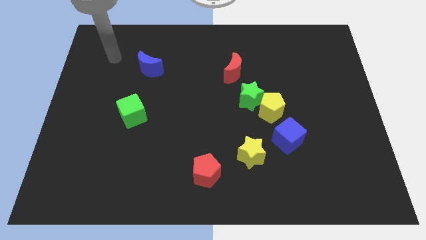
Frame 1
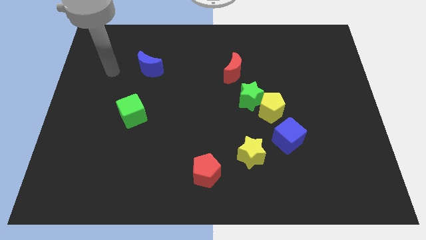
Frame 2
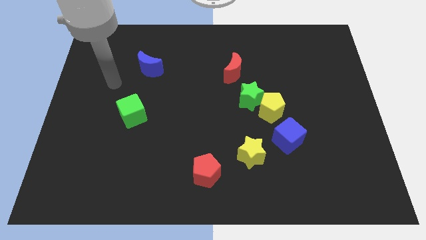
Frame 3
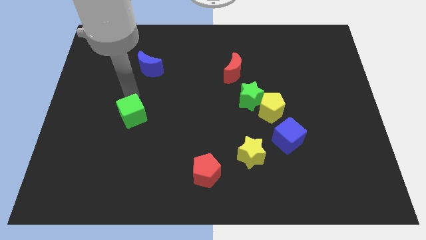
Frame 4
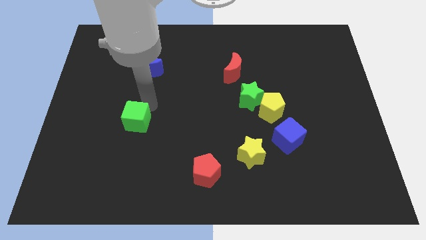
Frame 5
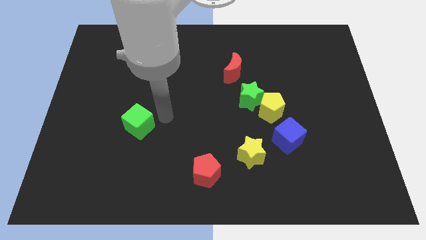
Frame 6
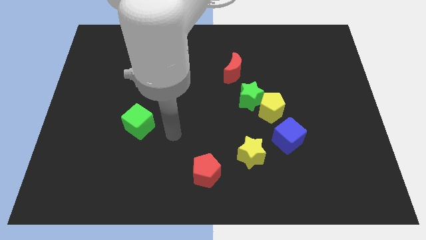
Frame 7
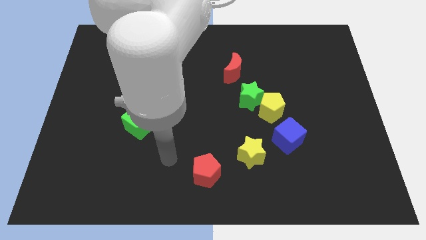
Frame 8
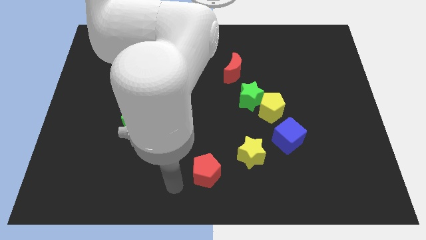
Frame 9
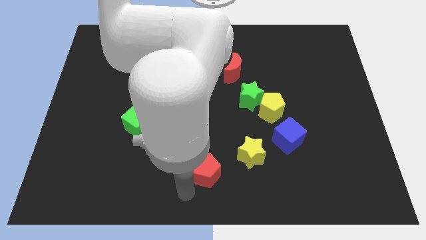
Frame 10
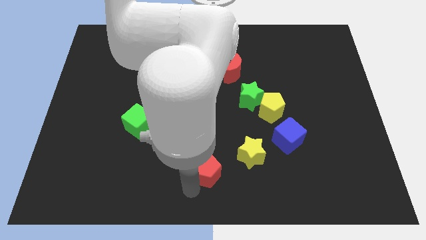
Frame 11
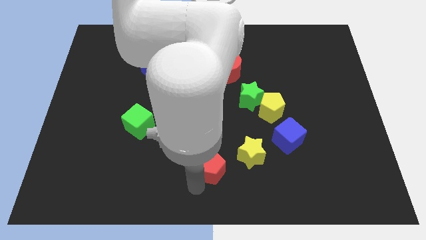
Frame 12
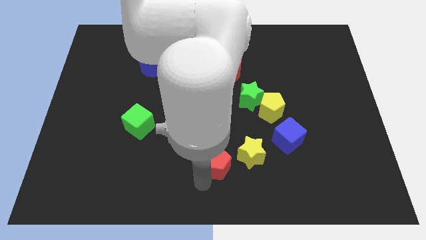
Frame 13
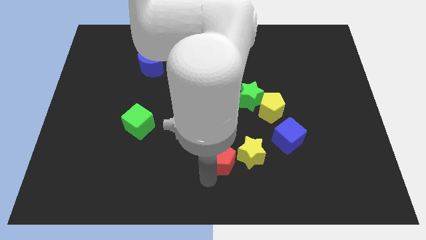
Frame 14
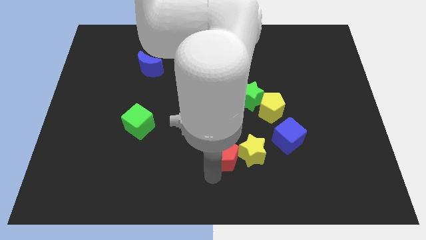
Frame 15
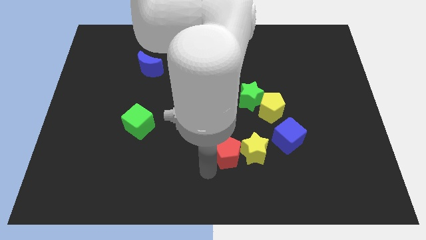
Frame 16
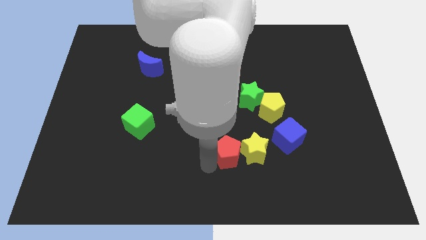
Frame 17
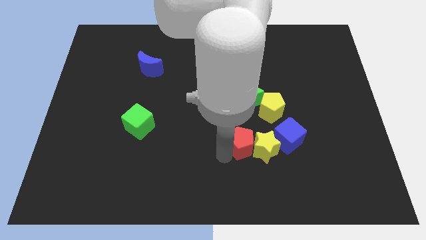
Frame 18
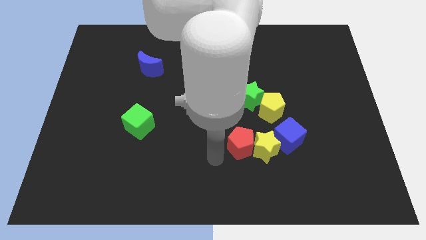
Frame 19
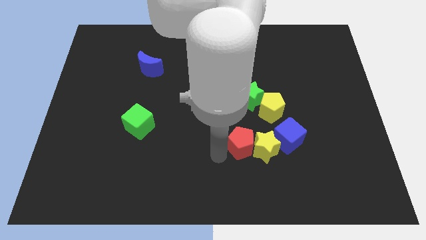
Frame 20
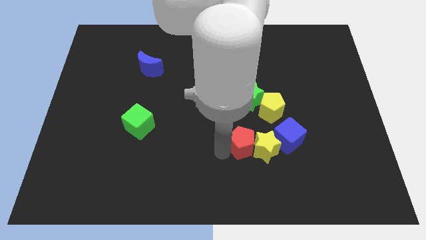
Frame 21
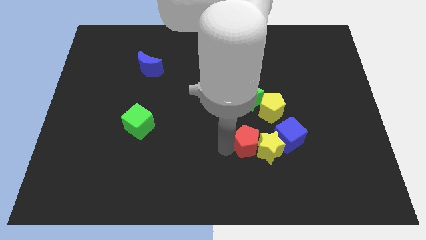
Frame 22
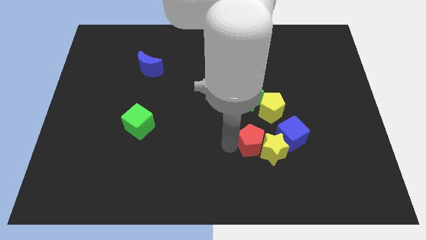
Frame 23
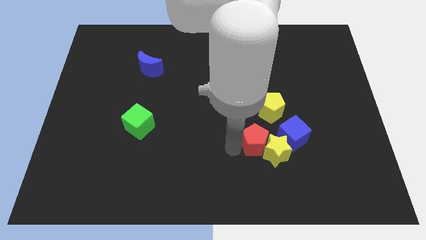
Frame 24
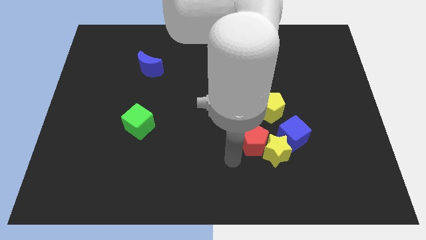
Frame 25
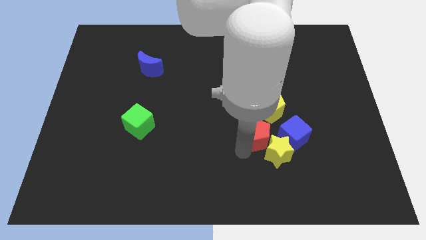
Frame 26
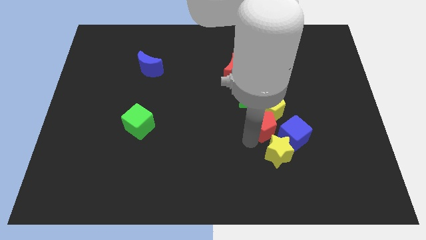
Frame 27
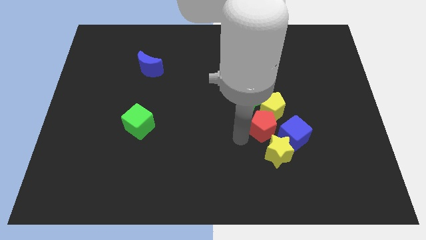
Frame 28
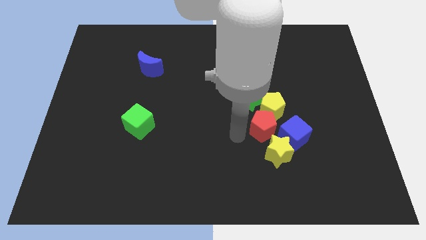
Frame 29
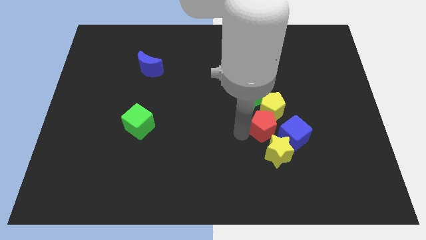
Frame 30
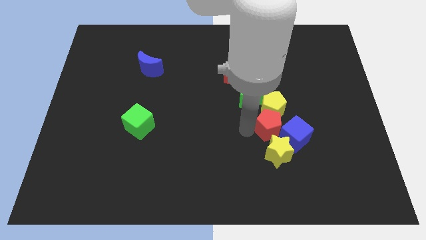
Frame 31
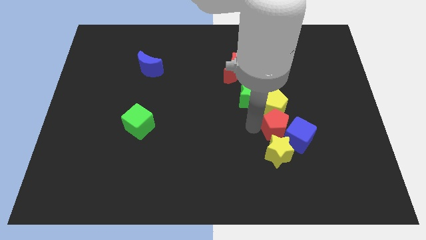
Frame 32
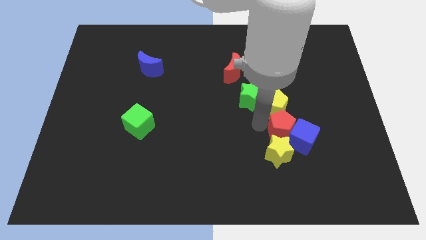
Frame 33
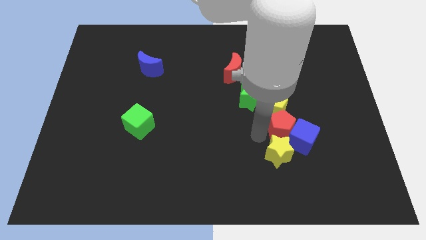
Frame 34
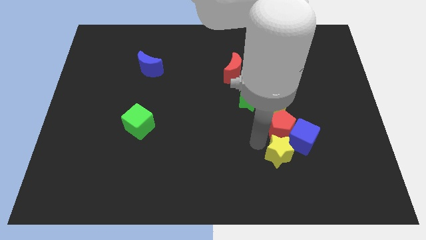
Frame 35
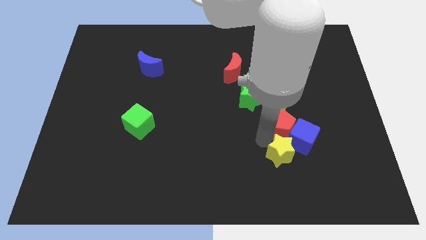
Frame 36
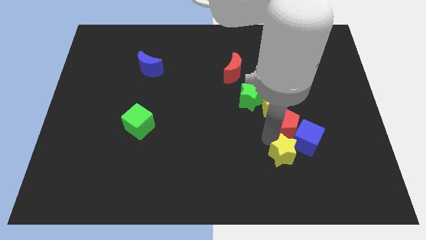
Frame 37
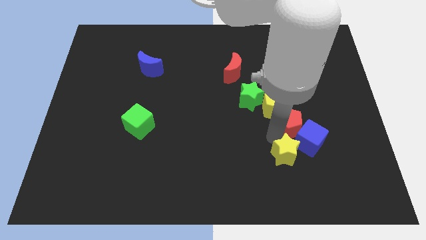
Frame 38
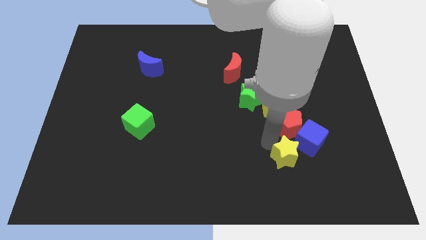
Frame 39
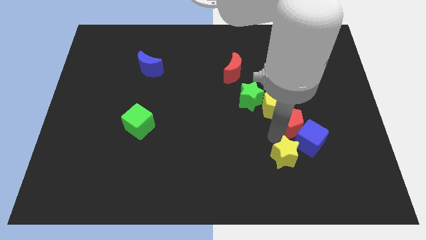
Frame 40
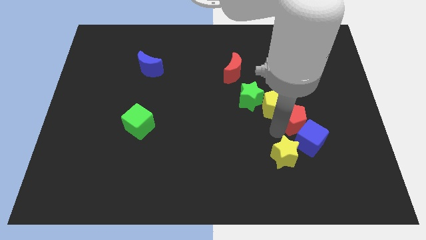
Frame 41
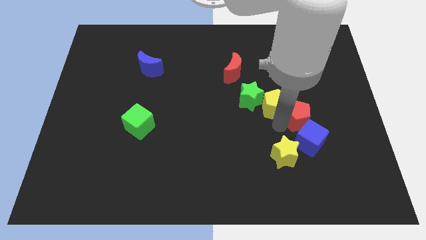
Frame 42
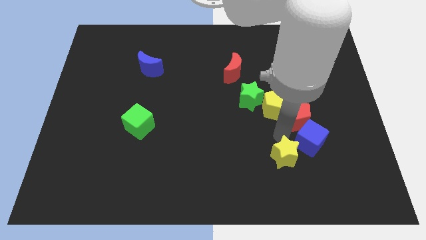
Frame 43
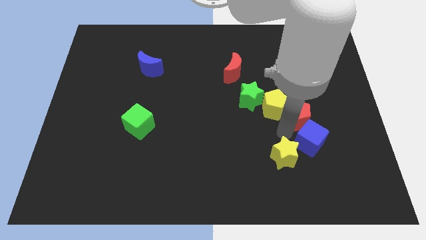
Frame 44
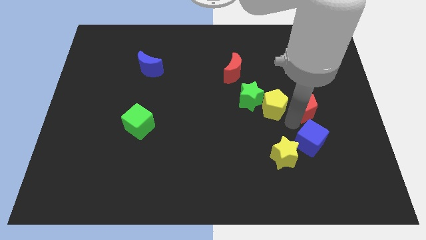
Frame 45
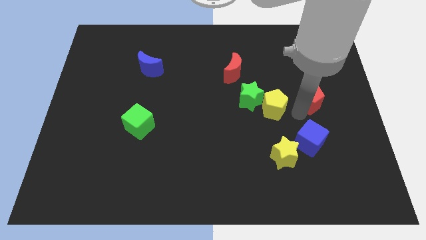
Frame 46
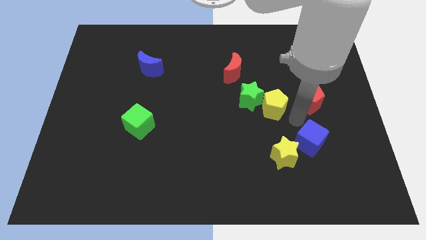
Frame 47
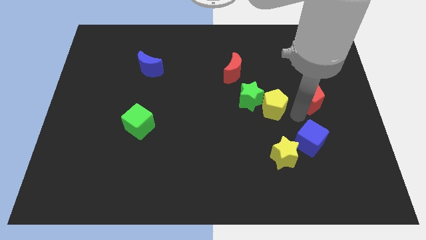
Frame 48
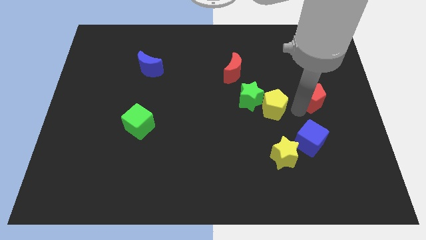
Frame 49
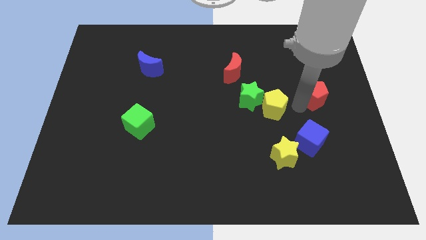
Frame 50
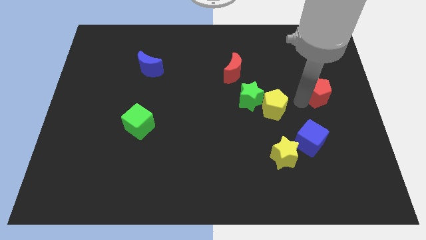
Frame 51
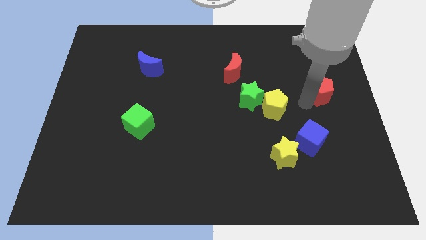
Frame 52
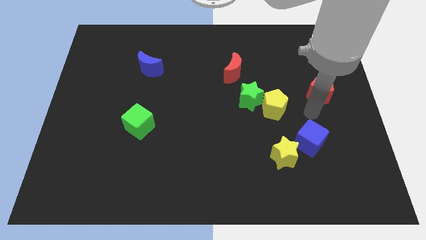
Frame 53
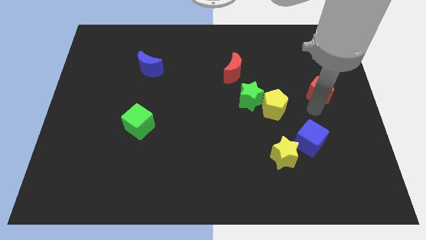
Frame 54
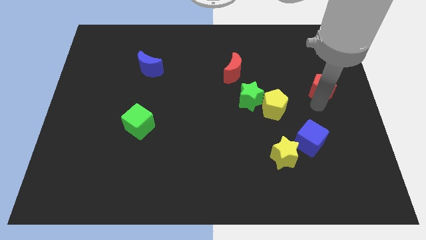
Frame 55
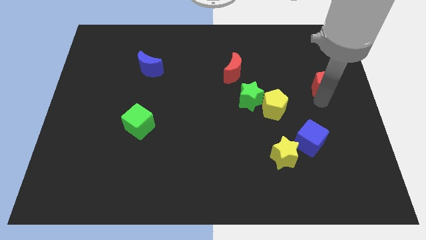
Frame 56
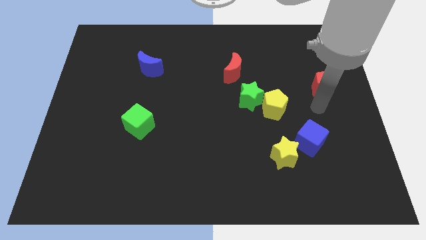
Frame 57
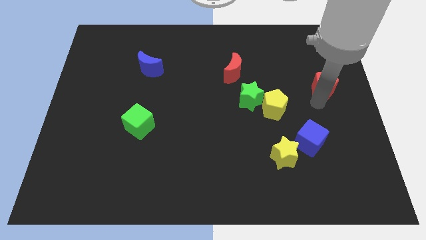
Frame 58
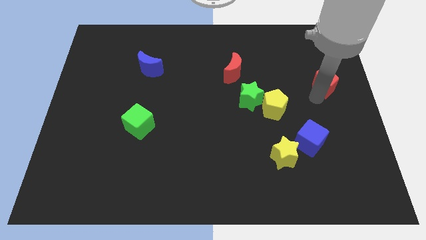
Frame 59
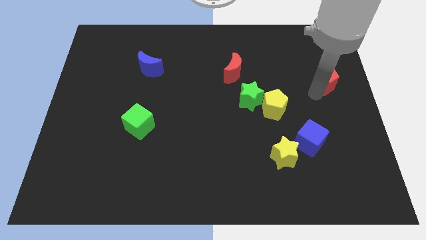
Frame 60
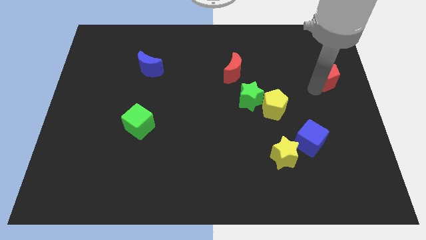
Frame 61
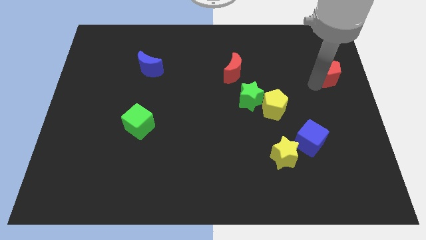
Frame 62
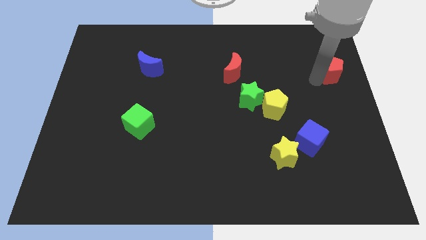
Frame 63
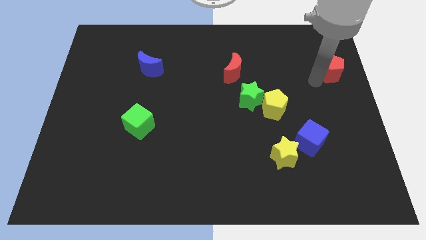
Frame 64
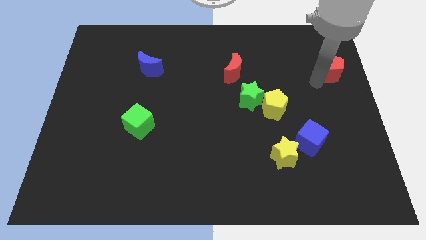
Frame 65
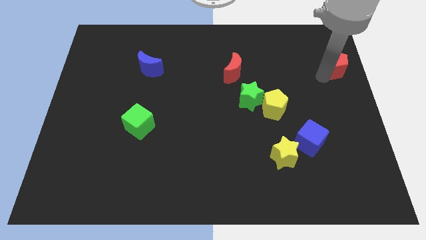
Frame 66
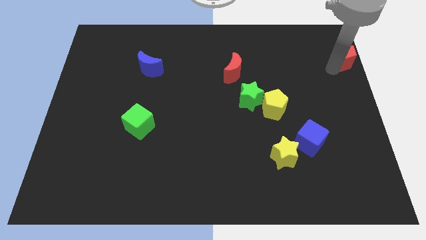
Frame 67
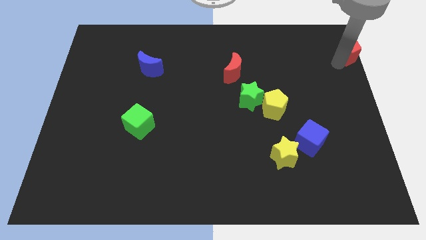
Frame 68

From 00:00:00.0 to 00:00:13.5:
put the red pentagon to the top right
